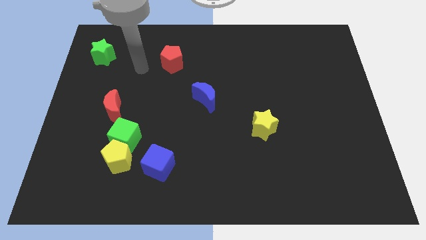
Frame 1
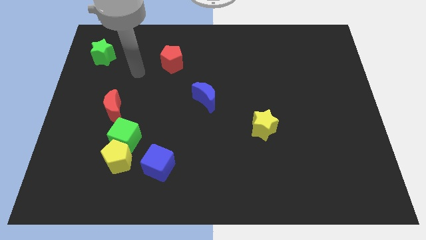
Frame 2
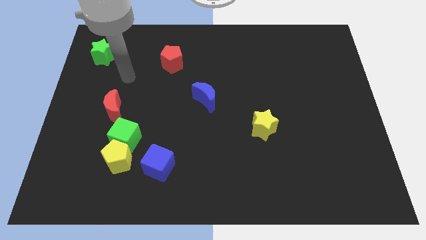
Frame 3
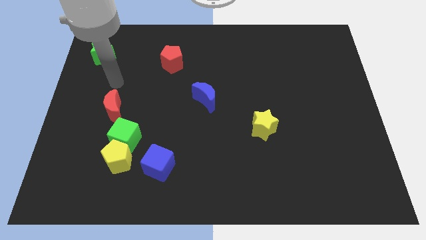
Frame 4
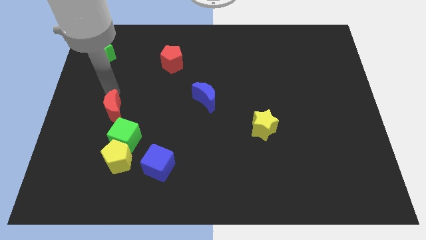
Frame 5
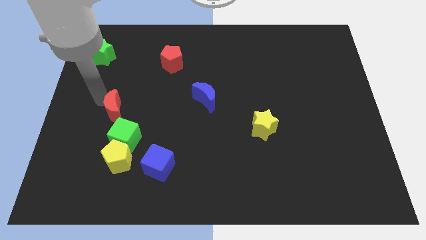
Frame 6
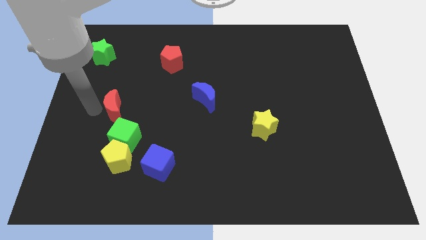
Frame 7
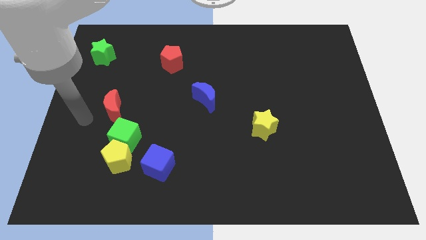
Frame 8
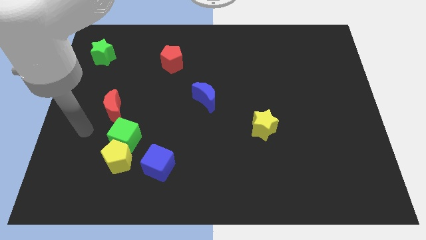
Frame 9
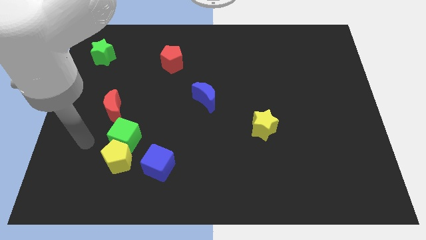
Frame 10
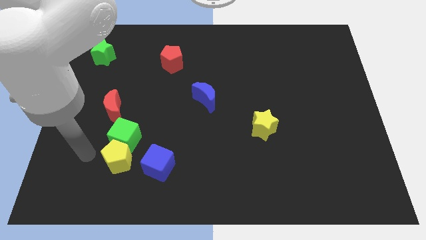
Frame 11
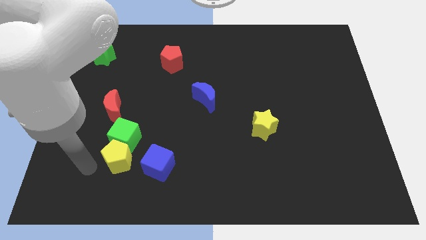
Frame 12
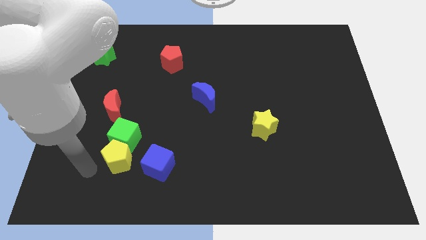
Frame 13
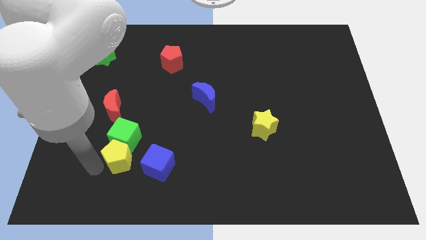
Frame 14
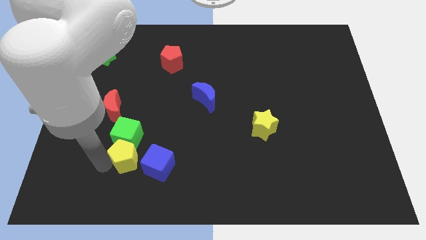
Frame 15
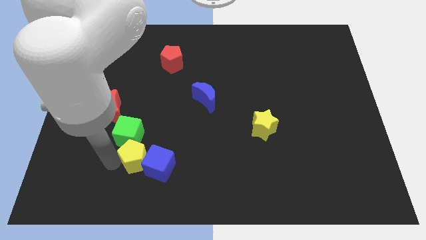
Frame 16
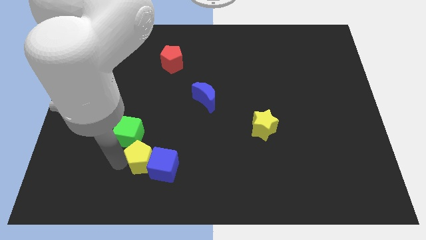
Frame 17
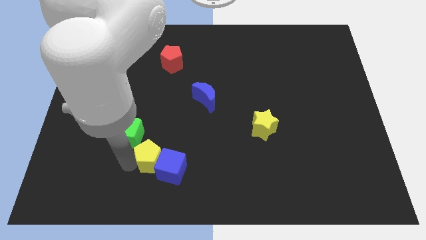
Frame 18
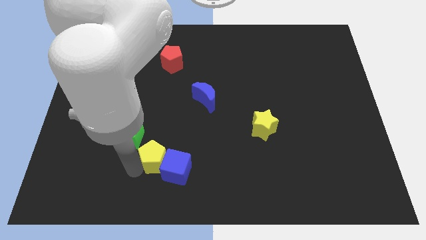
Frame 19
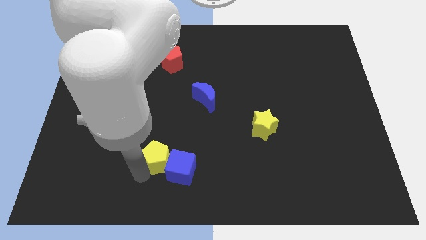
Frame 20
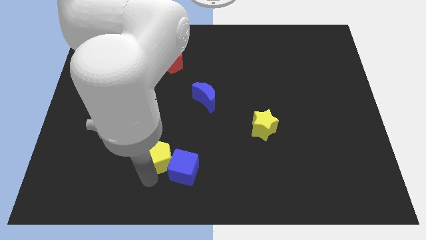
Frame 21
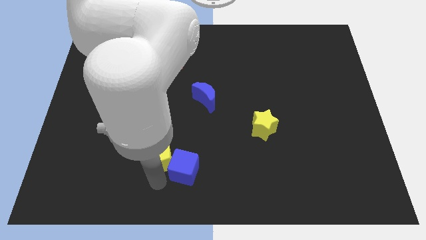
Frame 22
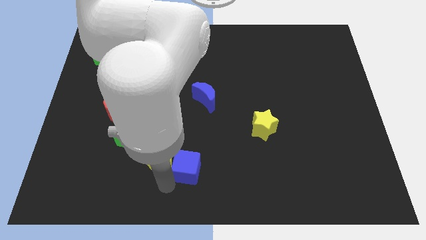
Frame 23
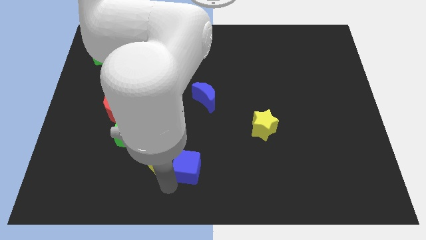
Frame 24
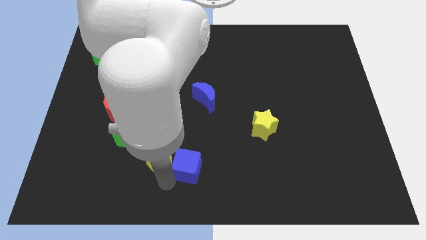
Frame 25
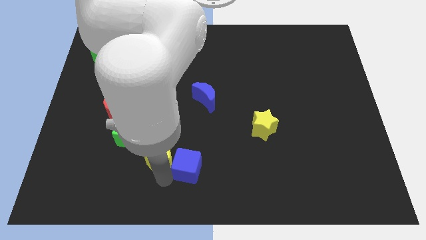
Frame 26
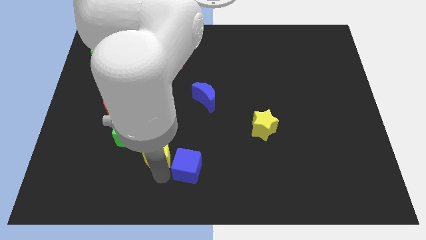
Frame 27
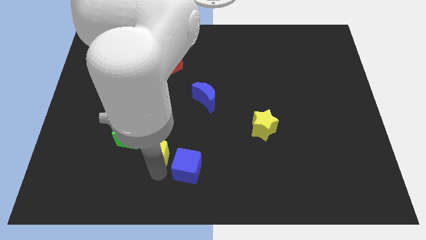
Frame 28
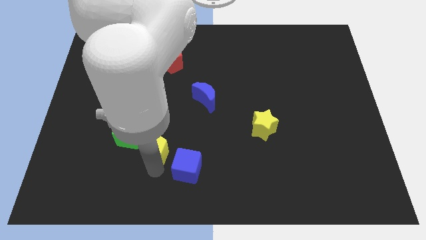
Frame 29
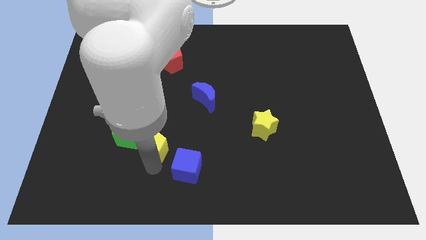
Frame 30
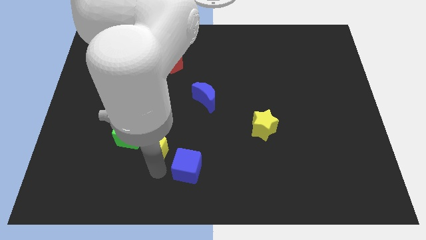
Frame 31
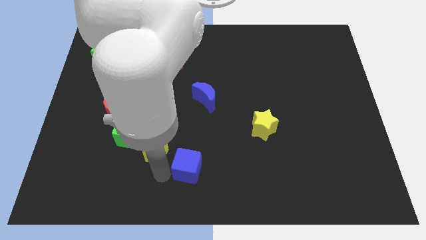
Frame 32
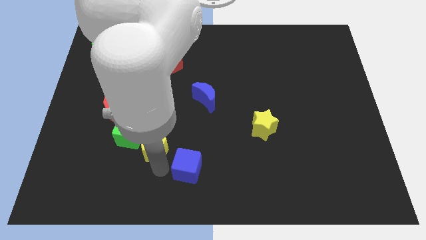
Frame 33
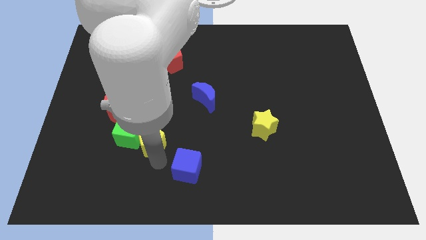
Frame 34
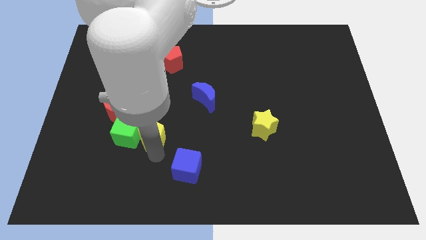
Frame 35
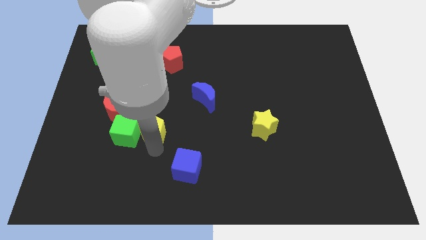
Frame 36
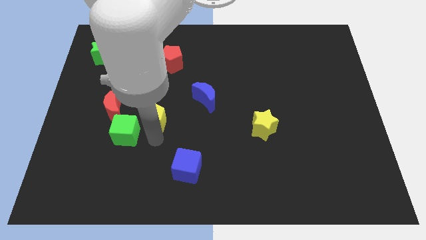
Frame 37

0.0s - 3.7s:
push the yellow pentagon somewhat upwards

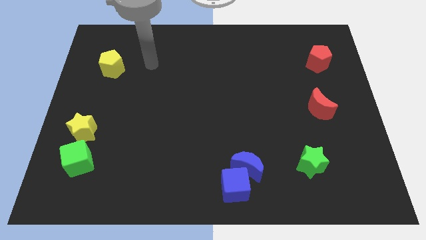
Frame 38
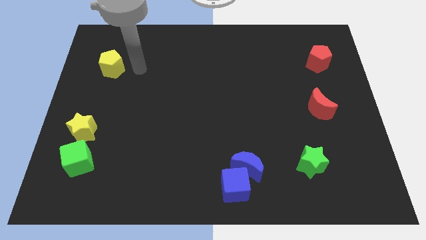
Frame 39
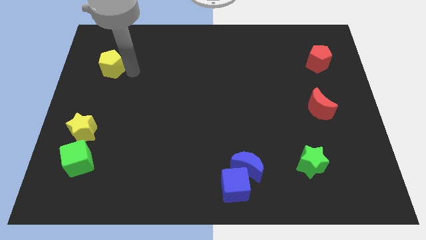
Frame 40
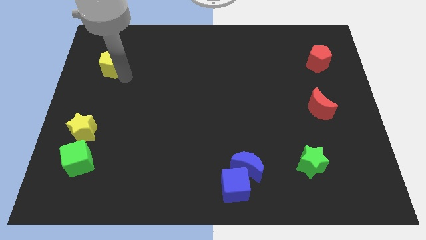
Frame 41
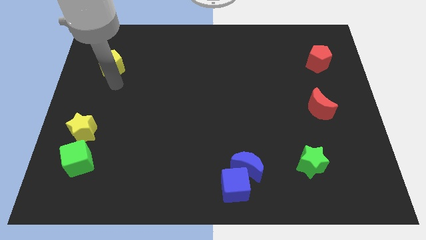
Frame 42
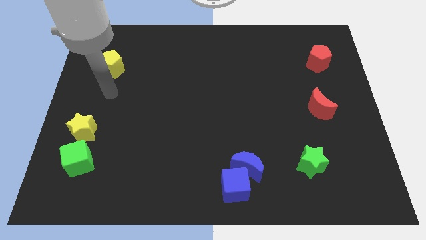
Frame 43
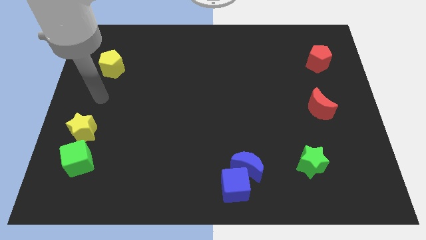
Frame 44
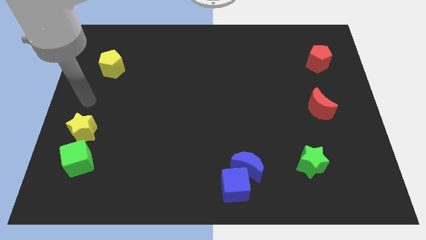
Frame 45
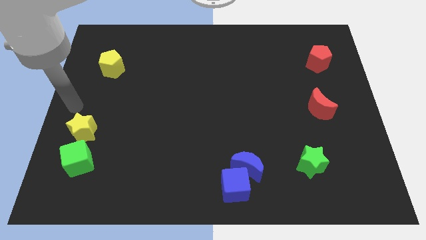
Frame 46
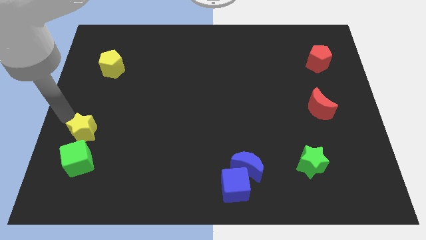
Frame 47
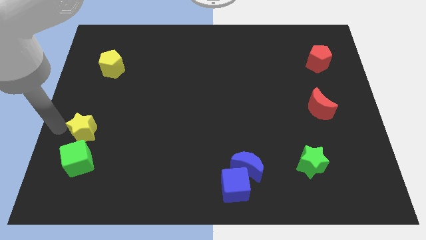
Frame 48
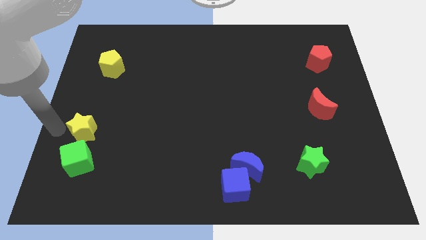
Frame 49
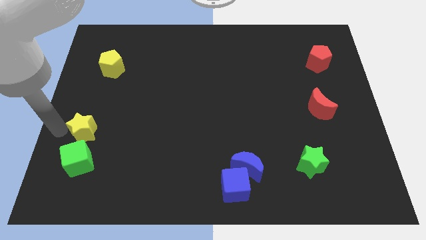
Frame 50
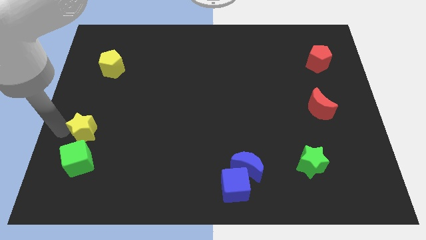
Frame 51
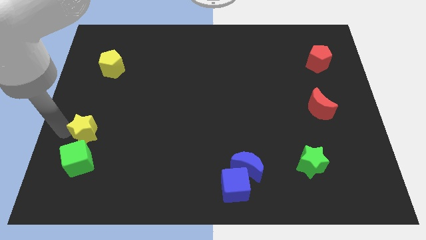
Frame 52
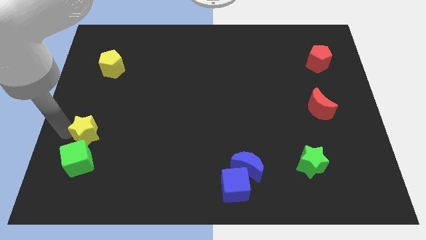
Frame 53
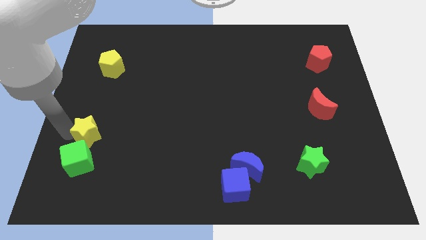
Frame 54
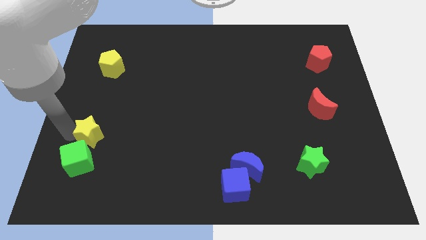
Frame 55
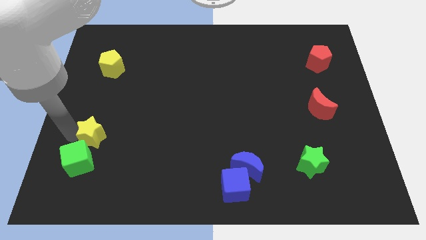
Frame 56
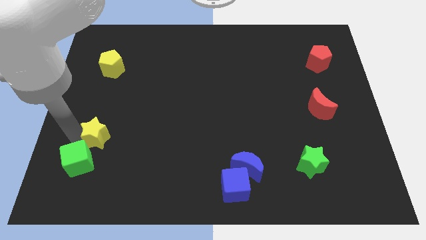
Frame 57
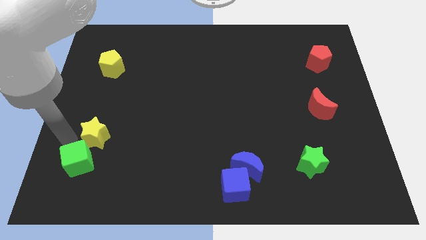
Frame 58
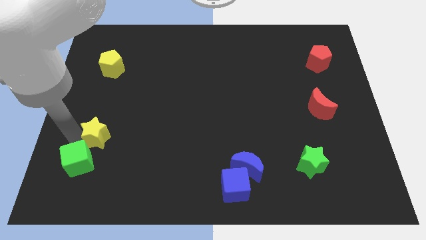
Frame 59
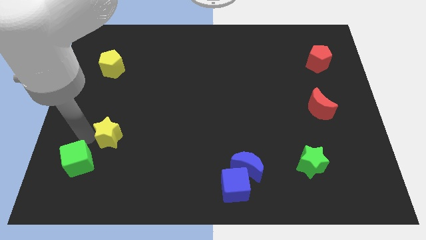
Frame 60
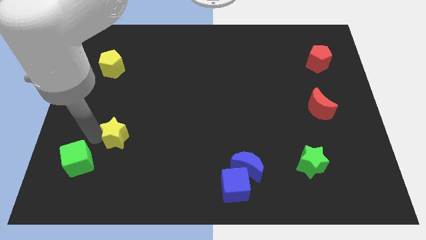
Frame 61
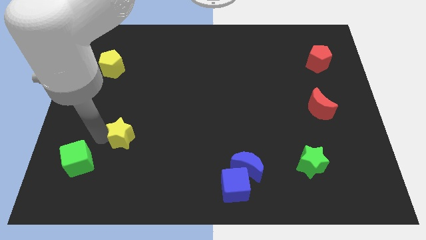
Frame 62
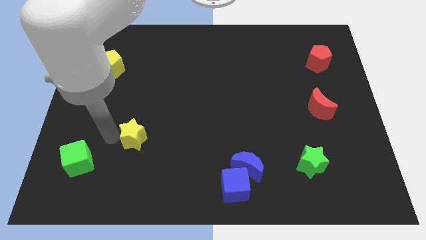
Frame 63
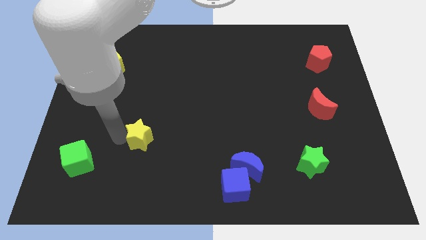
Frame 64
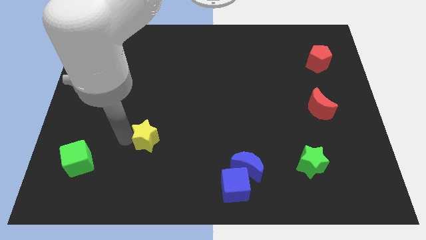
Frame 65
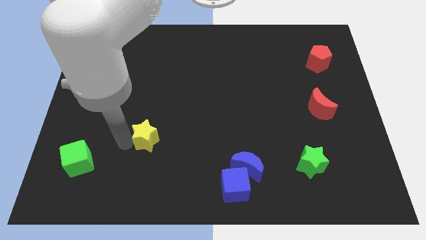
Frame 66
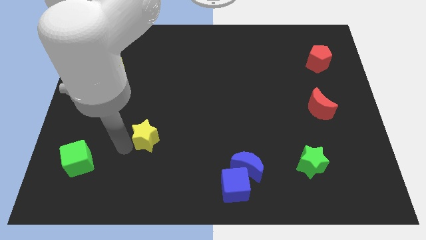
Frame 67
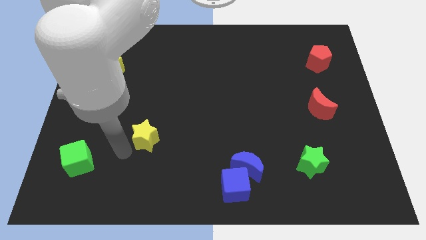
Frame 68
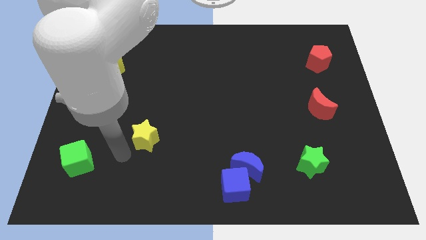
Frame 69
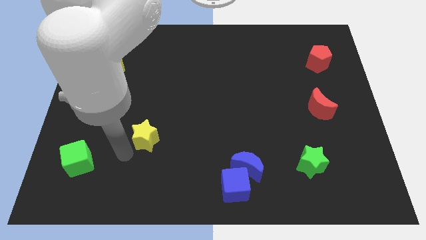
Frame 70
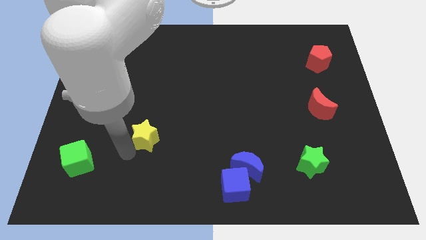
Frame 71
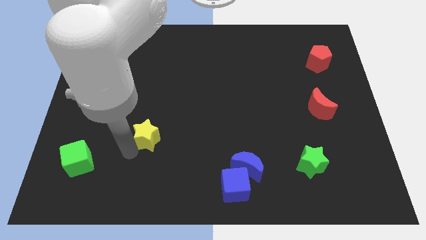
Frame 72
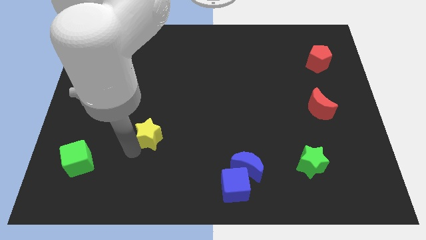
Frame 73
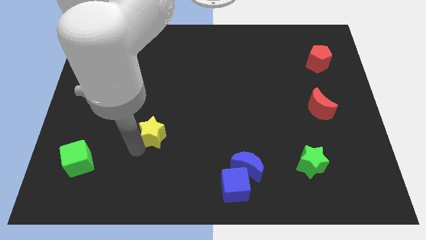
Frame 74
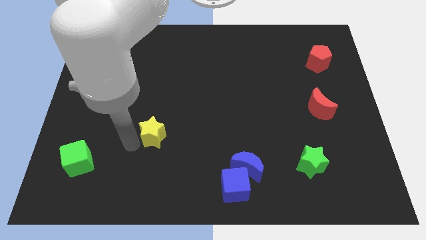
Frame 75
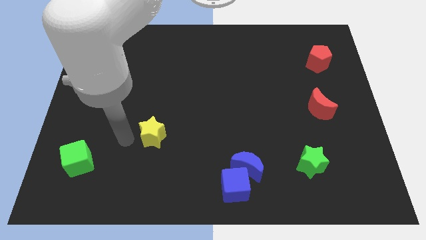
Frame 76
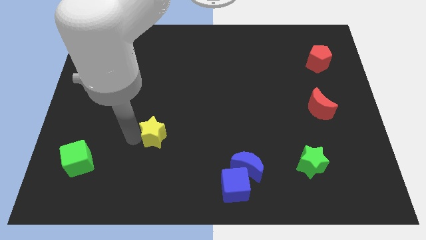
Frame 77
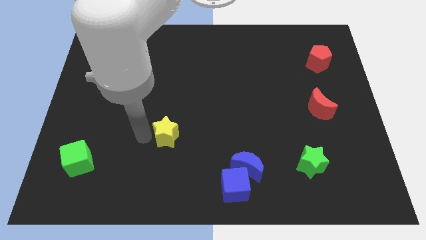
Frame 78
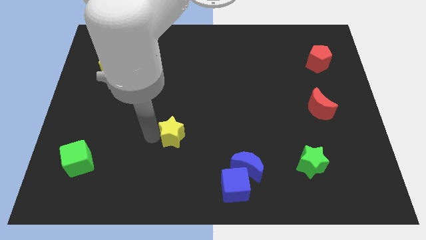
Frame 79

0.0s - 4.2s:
push the yellow star right
